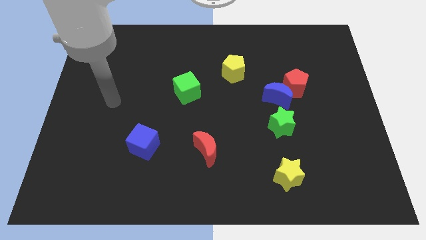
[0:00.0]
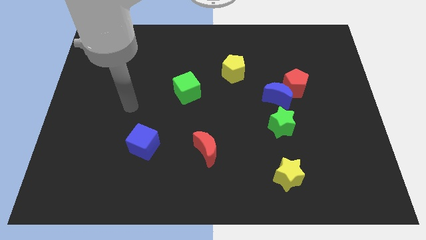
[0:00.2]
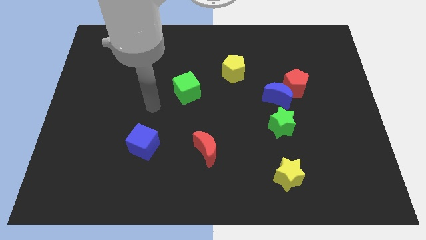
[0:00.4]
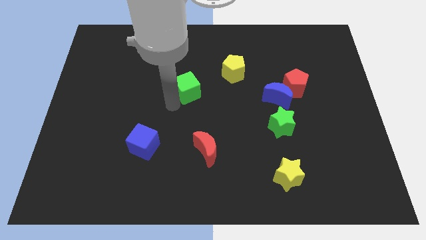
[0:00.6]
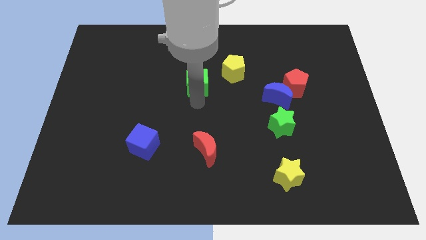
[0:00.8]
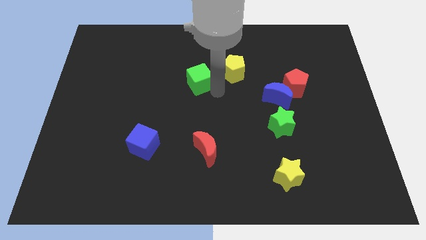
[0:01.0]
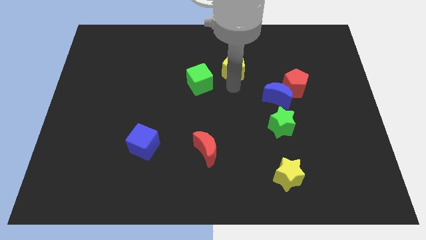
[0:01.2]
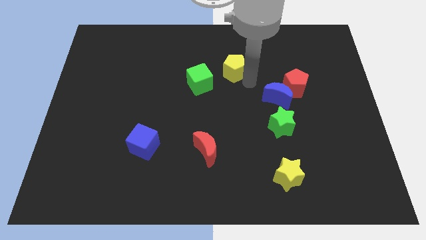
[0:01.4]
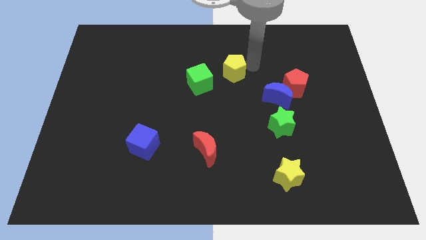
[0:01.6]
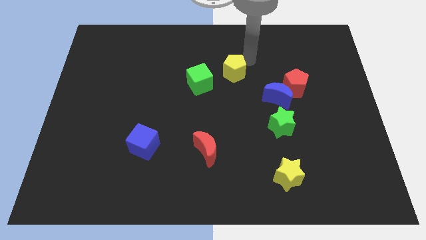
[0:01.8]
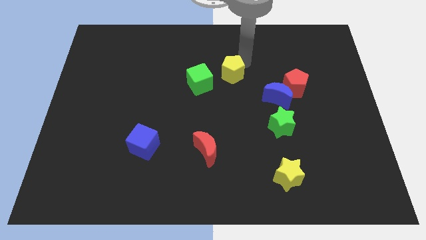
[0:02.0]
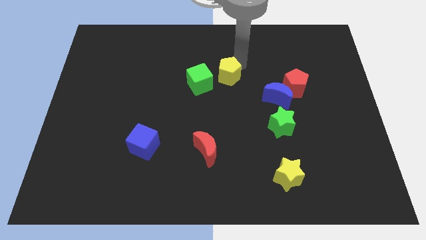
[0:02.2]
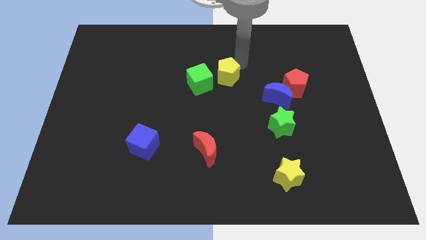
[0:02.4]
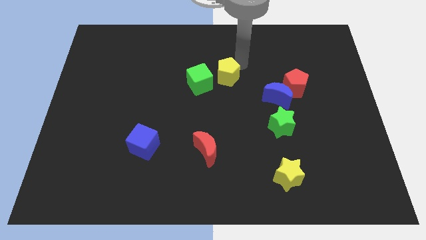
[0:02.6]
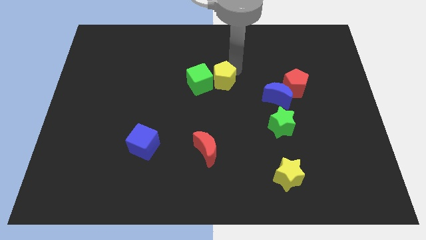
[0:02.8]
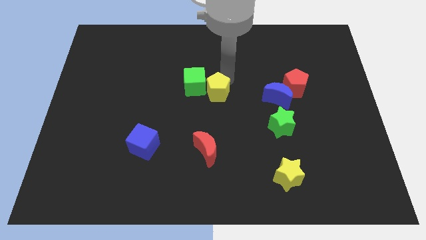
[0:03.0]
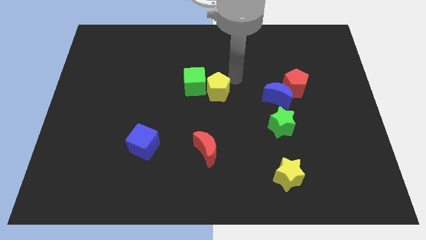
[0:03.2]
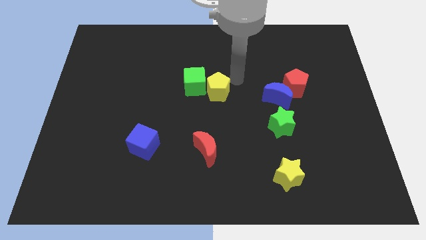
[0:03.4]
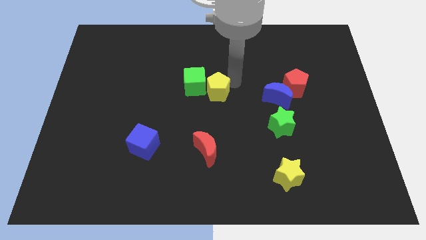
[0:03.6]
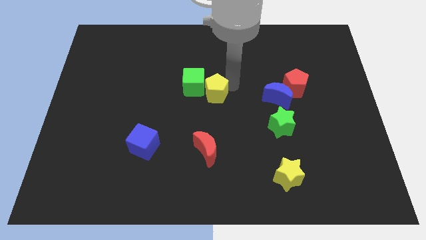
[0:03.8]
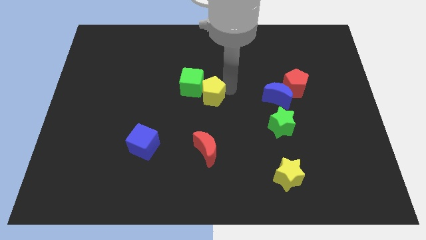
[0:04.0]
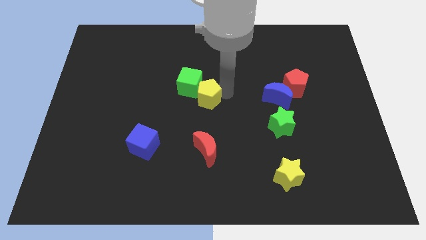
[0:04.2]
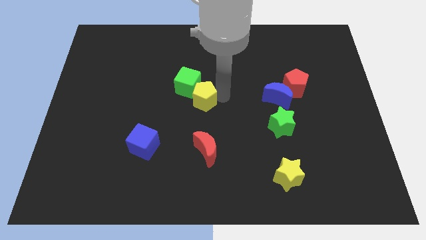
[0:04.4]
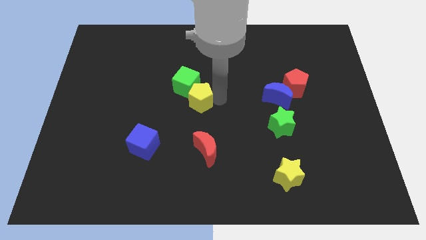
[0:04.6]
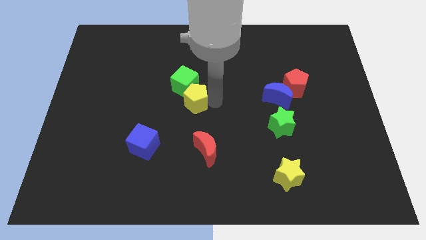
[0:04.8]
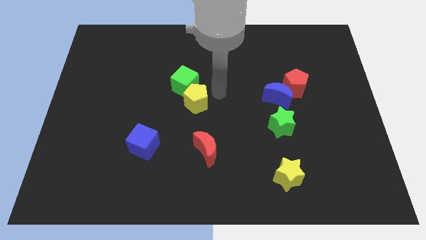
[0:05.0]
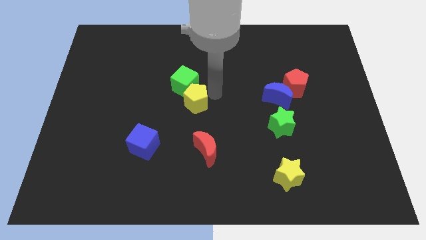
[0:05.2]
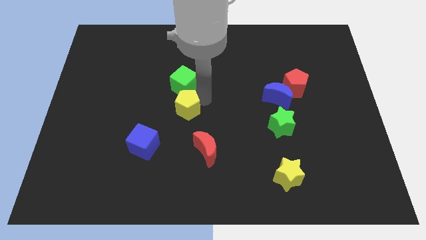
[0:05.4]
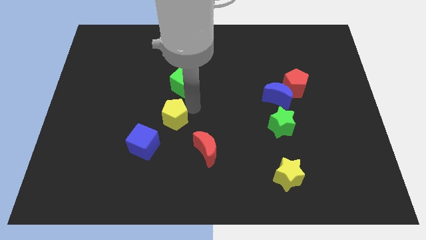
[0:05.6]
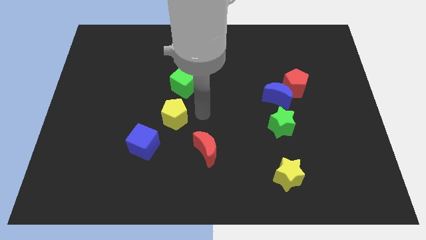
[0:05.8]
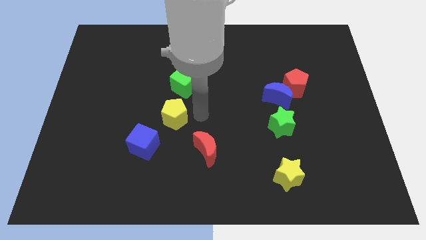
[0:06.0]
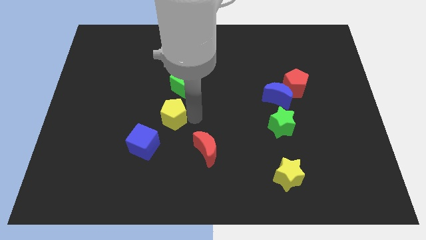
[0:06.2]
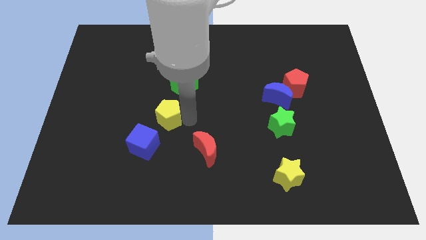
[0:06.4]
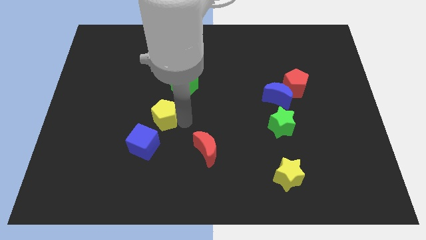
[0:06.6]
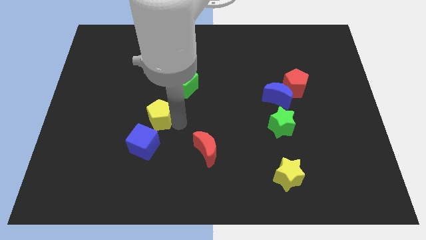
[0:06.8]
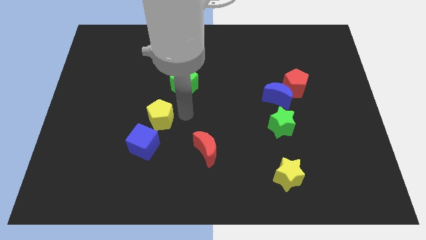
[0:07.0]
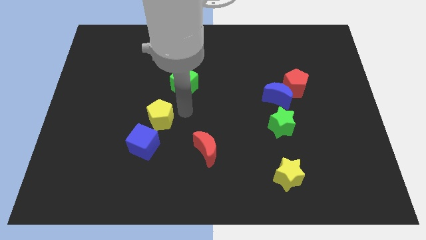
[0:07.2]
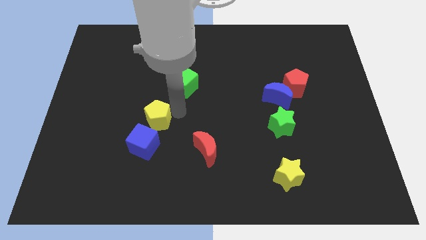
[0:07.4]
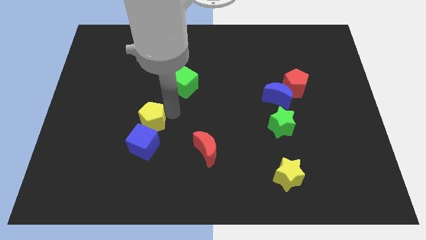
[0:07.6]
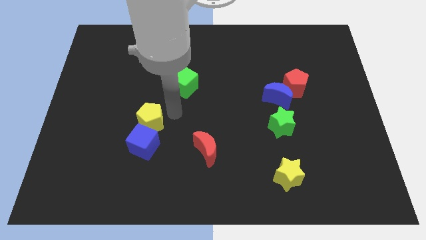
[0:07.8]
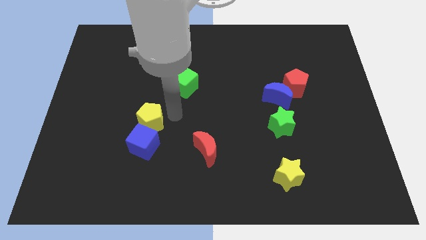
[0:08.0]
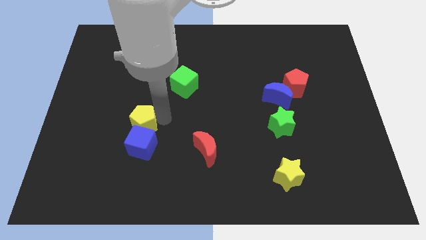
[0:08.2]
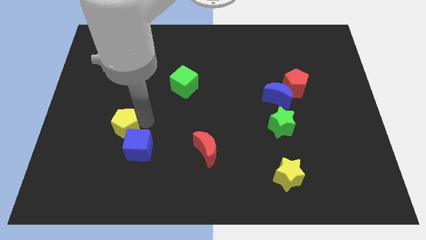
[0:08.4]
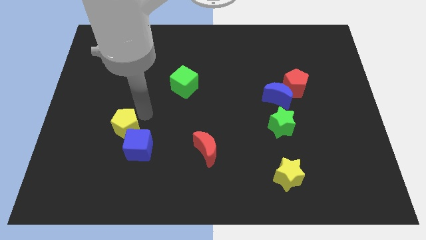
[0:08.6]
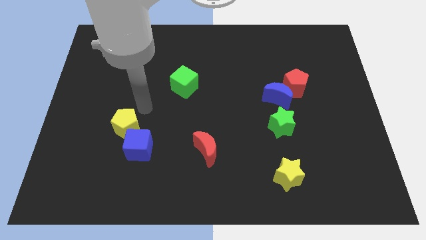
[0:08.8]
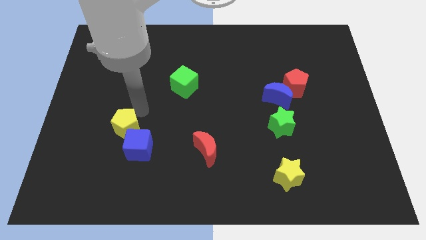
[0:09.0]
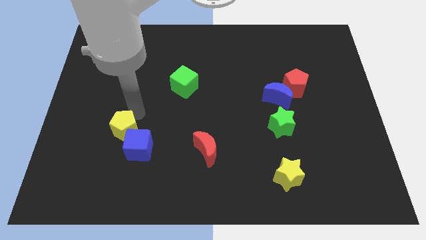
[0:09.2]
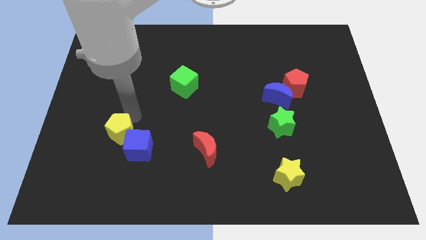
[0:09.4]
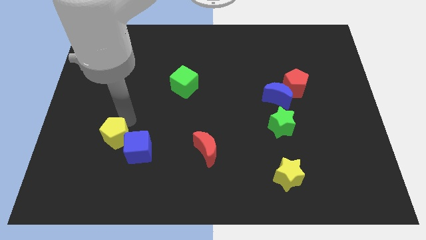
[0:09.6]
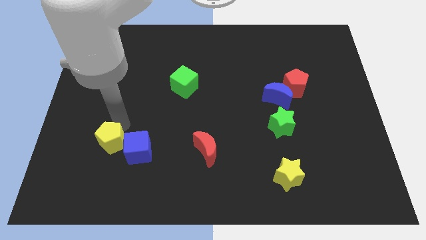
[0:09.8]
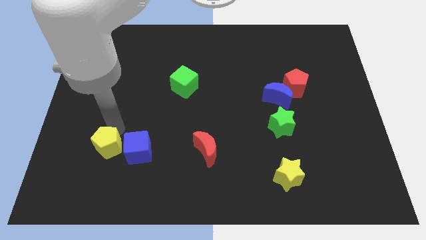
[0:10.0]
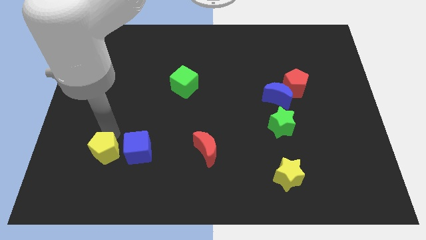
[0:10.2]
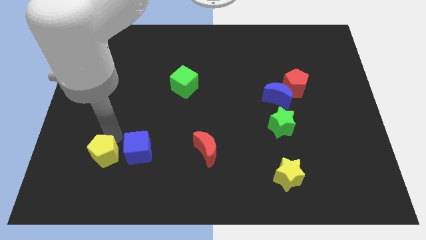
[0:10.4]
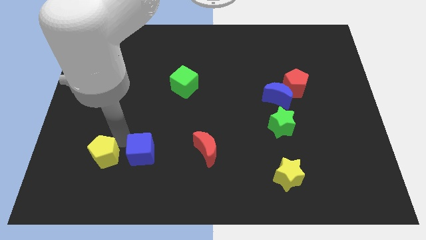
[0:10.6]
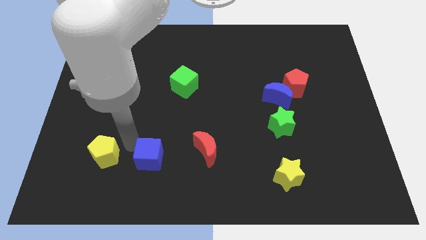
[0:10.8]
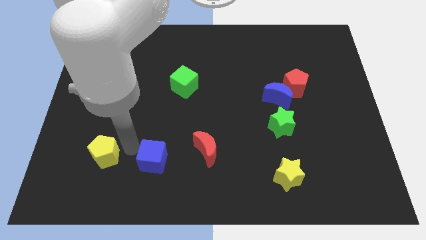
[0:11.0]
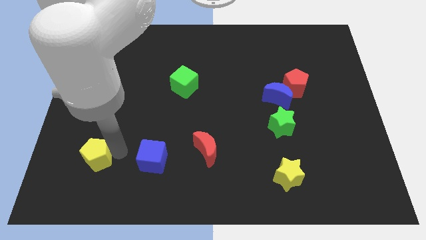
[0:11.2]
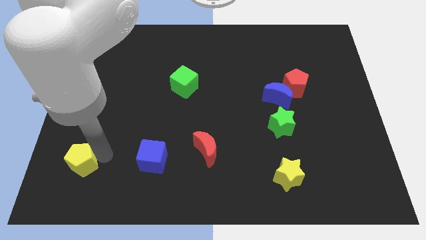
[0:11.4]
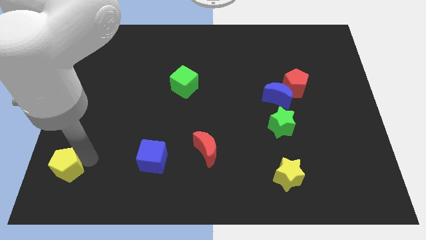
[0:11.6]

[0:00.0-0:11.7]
put the yellow pentagon to the lower left corner

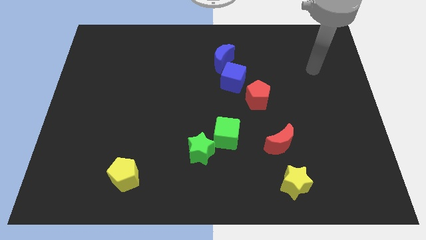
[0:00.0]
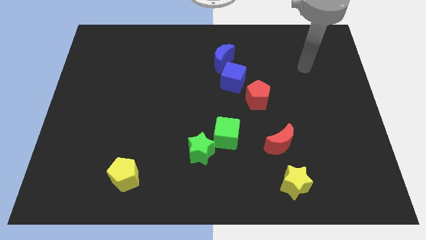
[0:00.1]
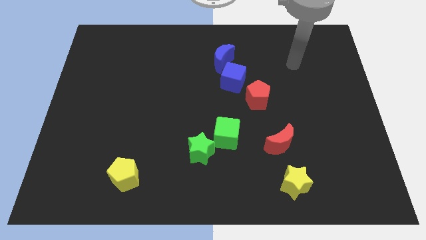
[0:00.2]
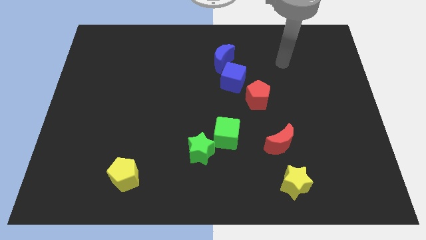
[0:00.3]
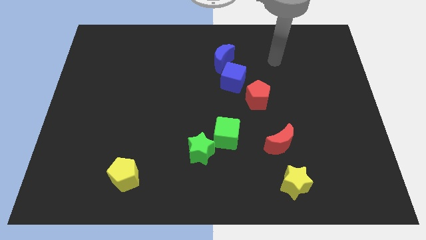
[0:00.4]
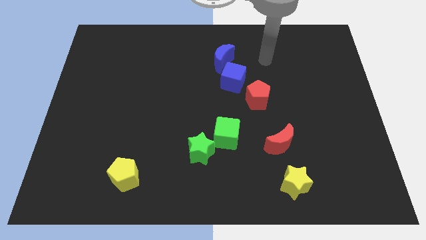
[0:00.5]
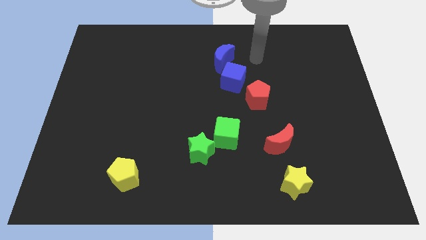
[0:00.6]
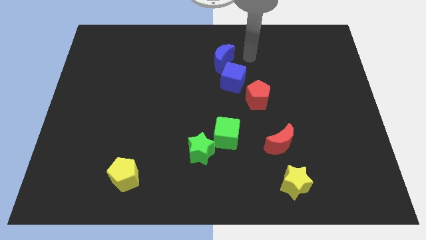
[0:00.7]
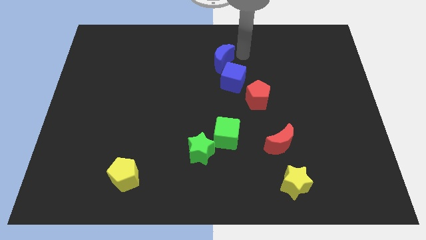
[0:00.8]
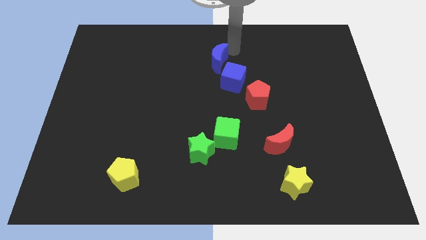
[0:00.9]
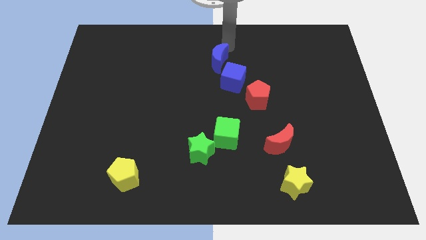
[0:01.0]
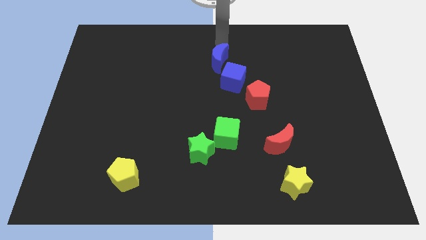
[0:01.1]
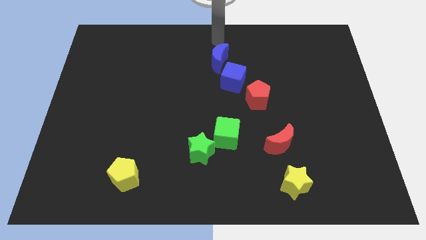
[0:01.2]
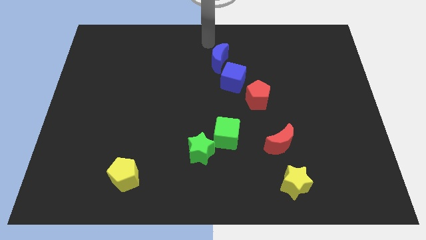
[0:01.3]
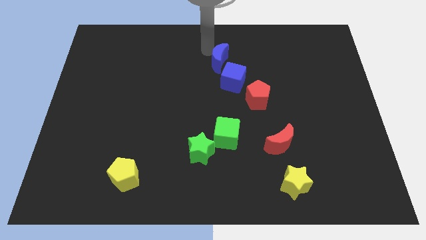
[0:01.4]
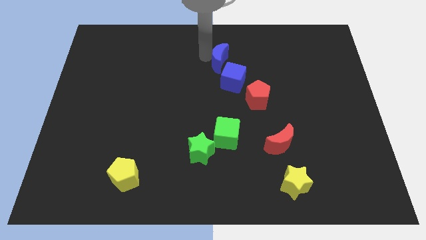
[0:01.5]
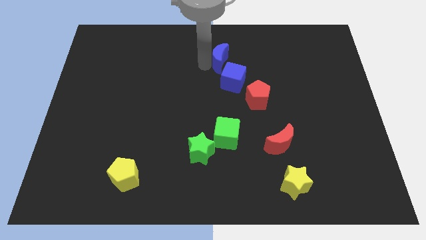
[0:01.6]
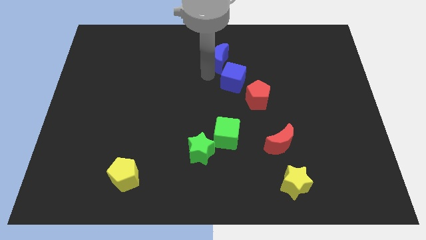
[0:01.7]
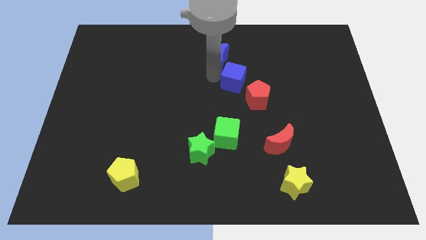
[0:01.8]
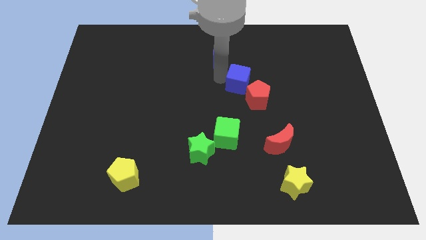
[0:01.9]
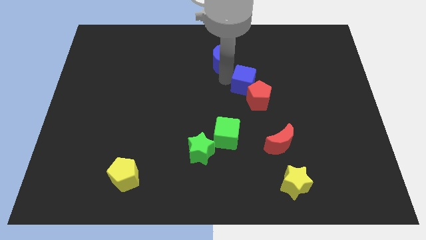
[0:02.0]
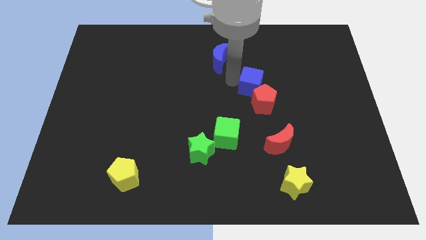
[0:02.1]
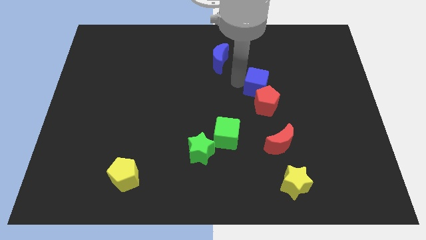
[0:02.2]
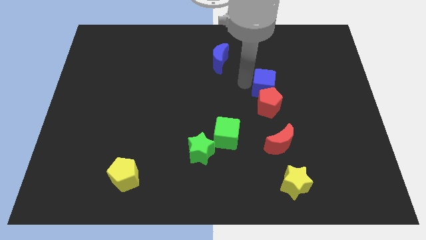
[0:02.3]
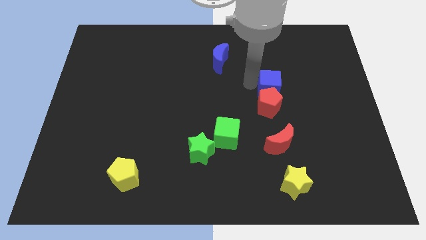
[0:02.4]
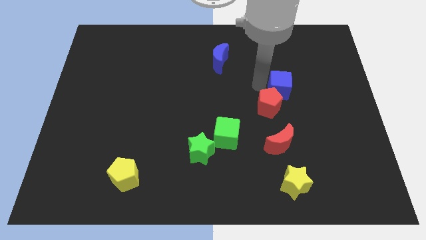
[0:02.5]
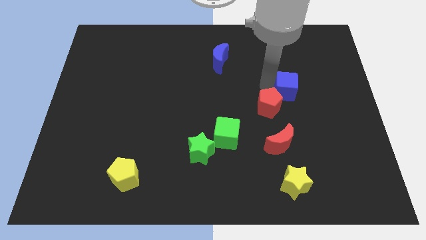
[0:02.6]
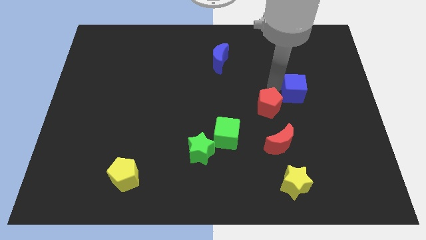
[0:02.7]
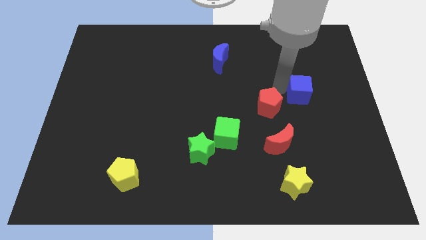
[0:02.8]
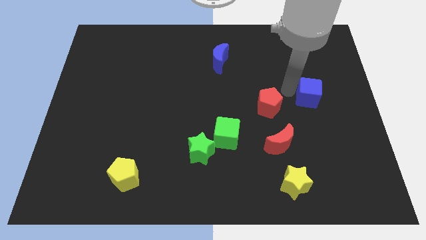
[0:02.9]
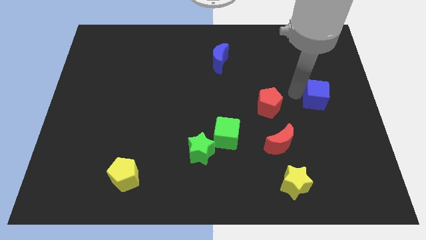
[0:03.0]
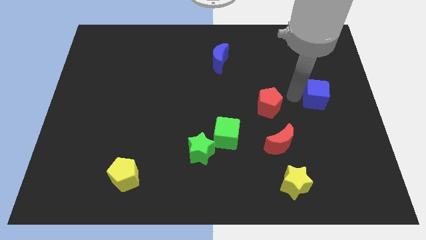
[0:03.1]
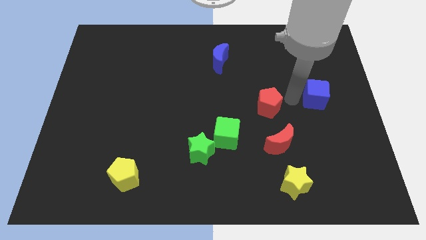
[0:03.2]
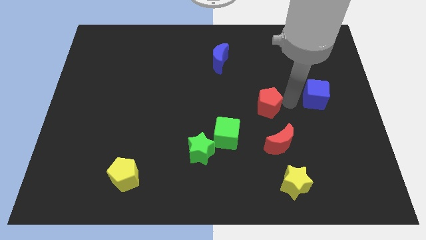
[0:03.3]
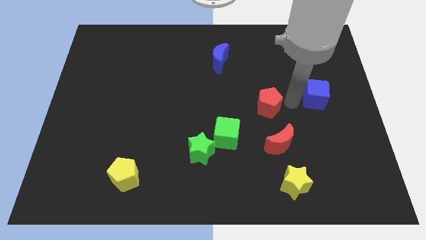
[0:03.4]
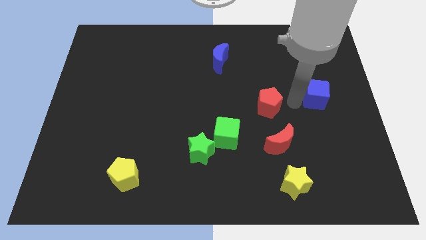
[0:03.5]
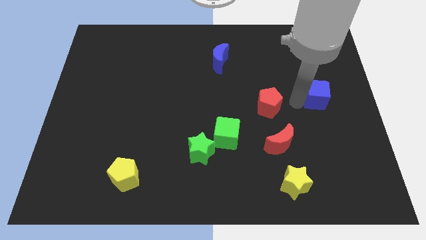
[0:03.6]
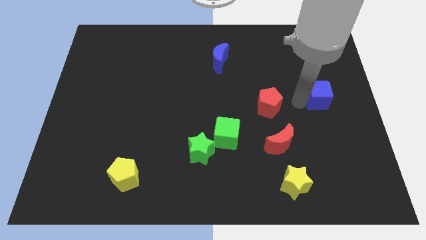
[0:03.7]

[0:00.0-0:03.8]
slide the blue cube to the right side
